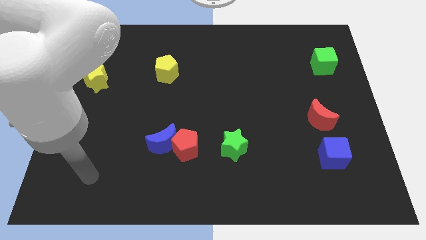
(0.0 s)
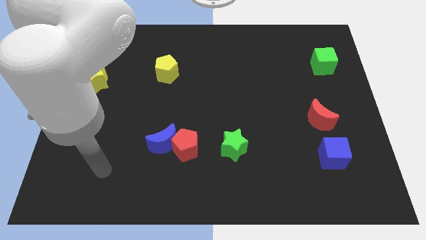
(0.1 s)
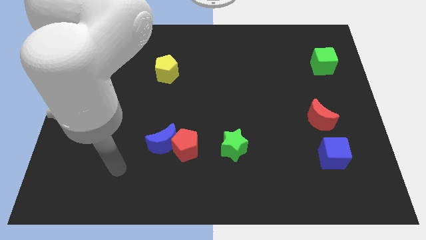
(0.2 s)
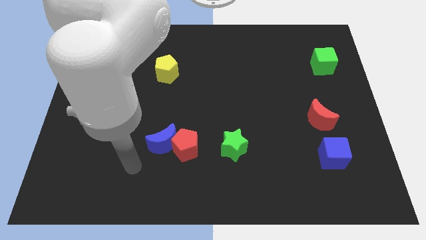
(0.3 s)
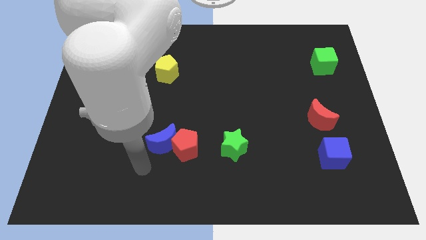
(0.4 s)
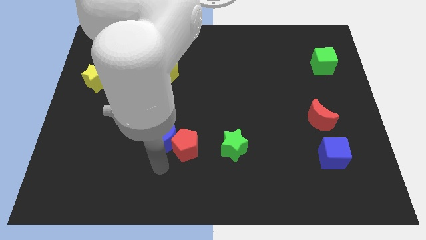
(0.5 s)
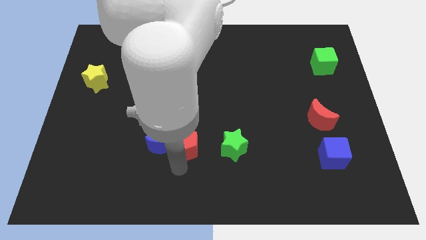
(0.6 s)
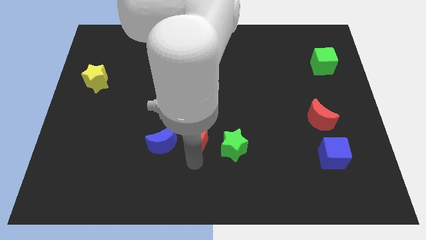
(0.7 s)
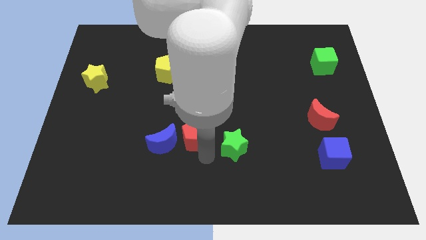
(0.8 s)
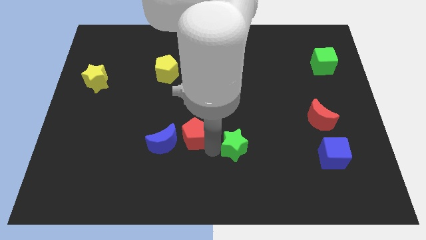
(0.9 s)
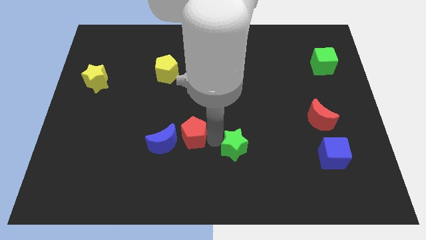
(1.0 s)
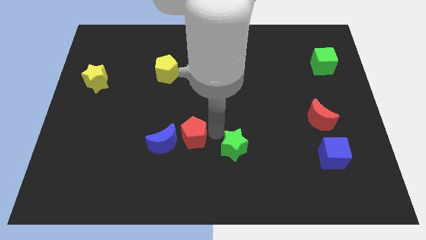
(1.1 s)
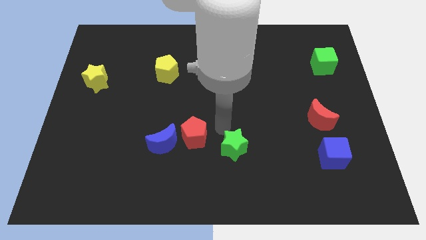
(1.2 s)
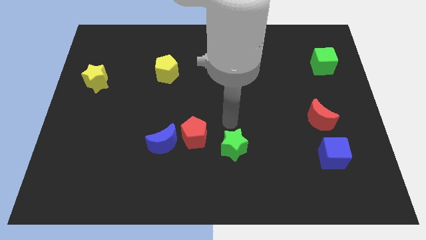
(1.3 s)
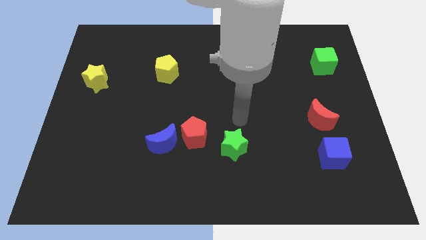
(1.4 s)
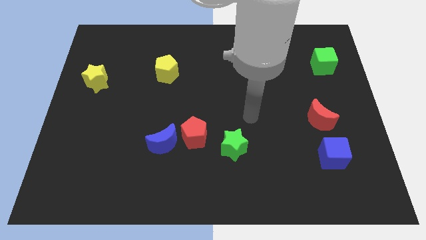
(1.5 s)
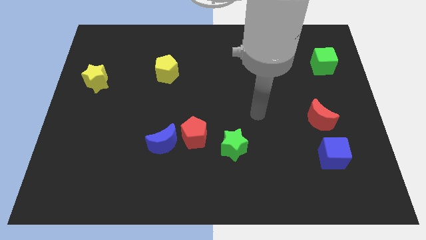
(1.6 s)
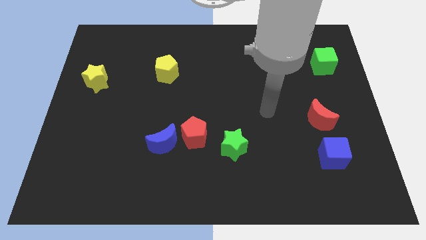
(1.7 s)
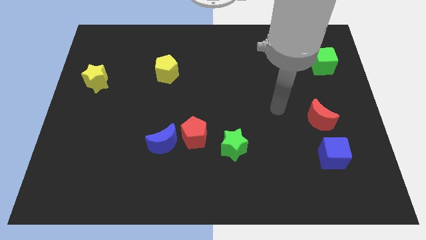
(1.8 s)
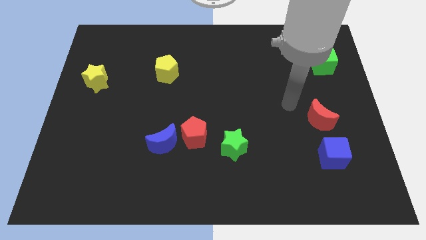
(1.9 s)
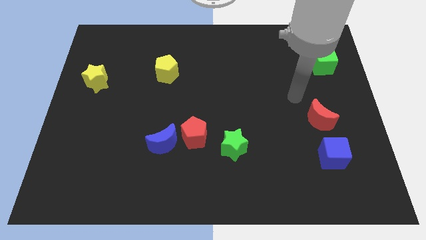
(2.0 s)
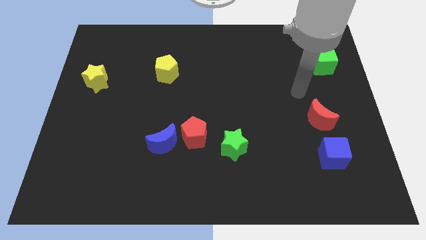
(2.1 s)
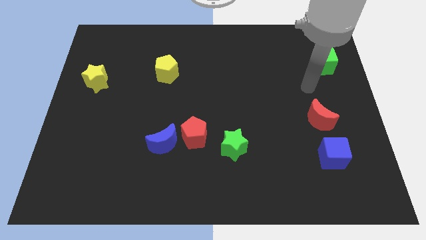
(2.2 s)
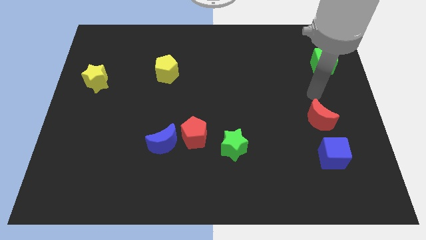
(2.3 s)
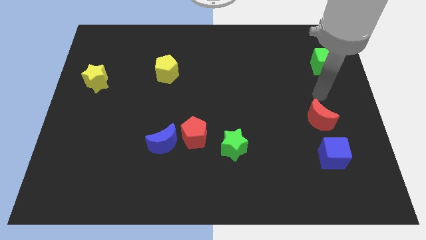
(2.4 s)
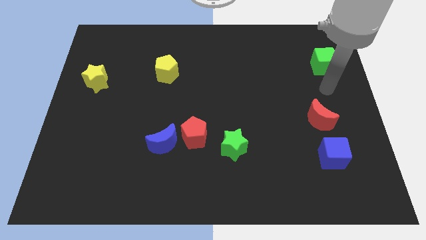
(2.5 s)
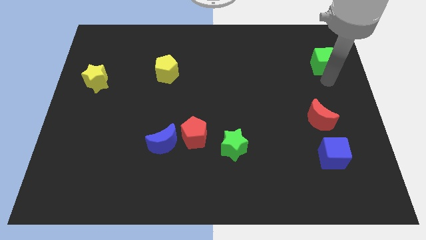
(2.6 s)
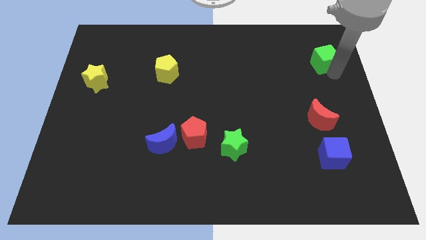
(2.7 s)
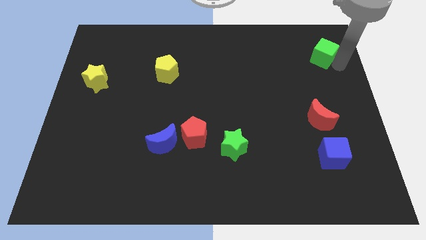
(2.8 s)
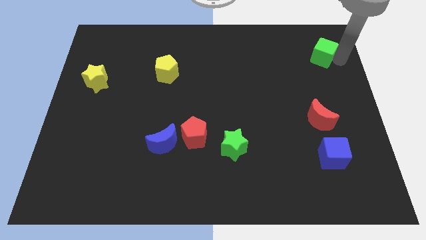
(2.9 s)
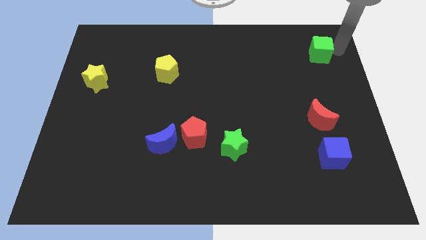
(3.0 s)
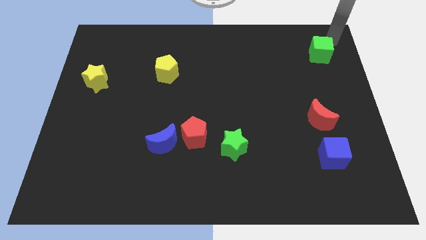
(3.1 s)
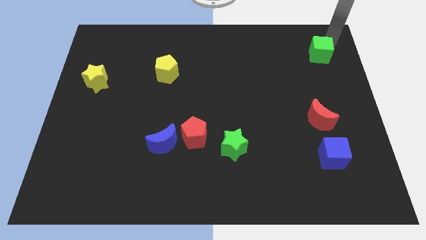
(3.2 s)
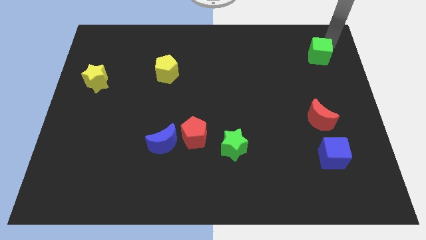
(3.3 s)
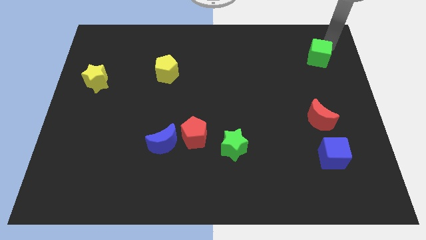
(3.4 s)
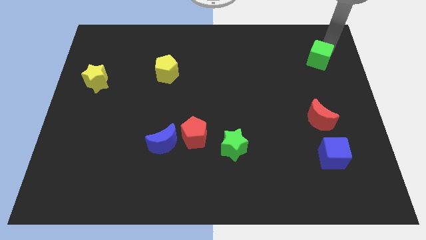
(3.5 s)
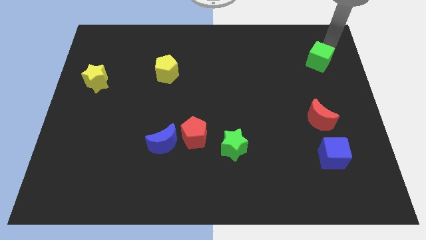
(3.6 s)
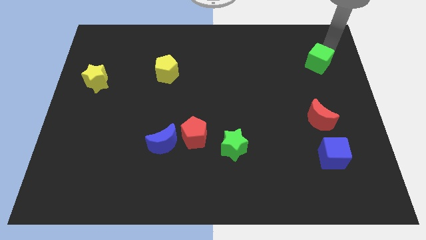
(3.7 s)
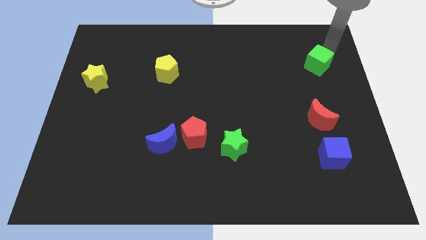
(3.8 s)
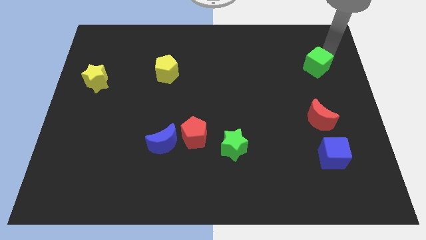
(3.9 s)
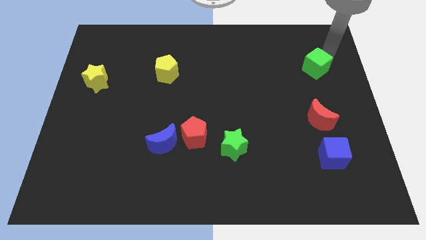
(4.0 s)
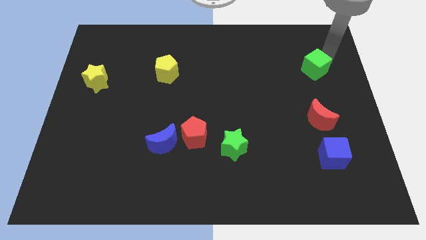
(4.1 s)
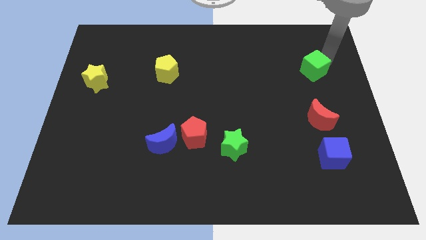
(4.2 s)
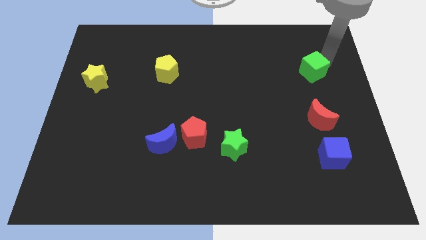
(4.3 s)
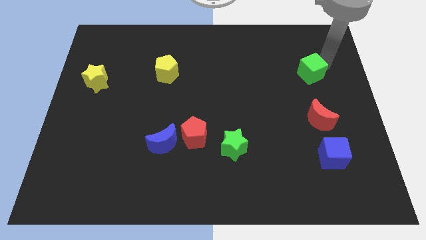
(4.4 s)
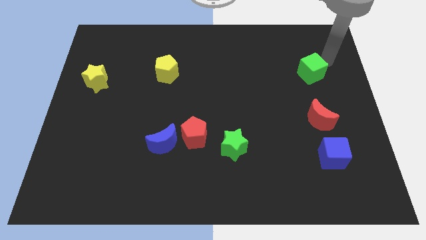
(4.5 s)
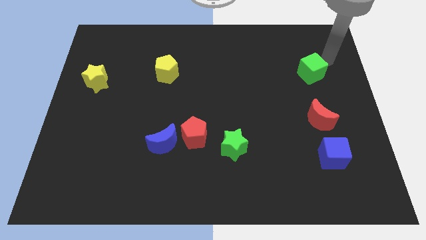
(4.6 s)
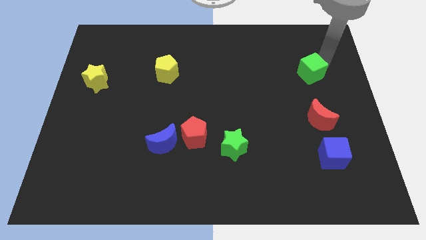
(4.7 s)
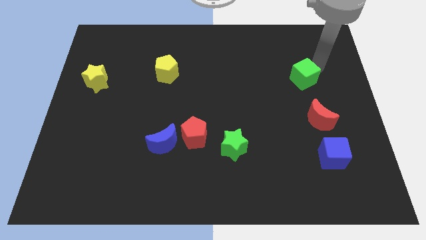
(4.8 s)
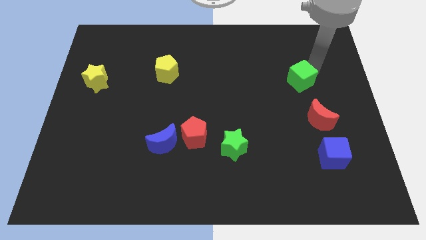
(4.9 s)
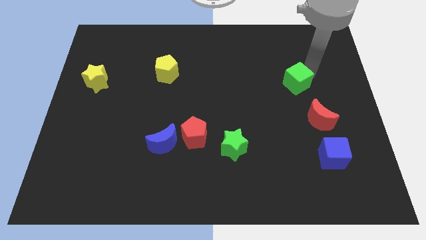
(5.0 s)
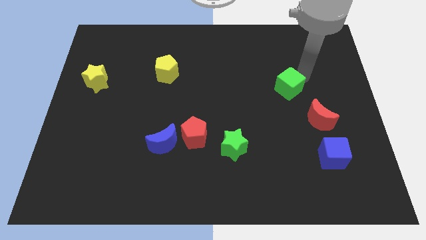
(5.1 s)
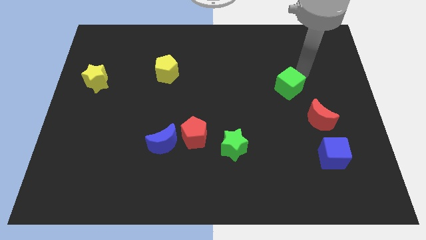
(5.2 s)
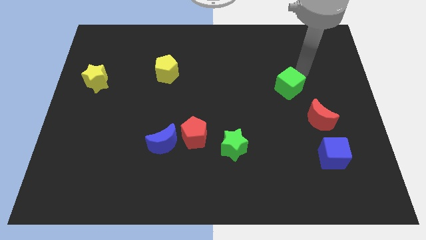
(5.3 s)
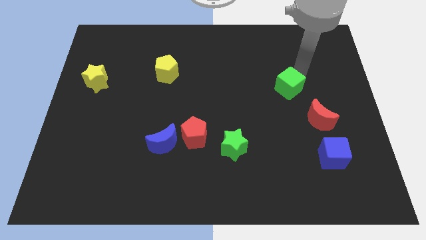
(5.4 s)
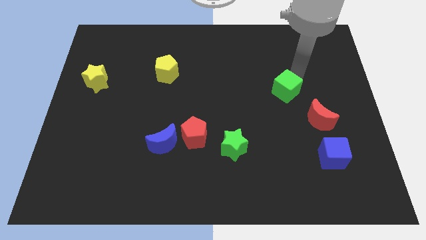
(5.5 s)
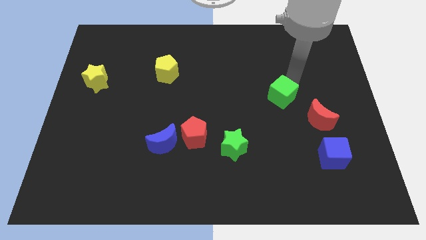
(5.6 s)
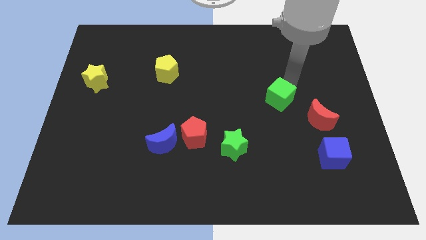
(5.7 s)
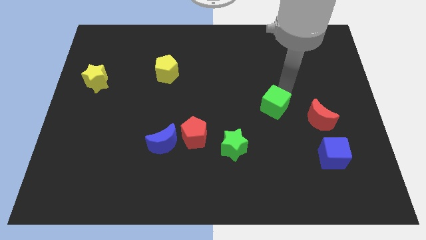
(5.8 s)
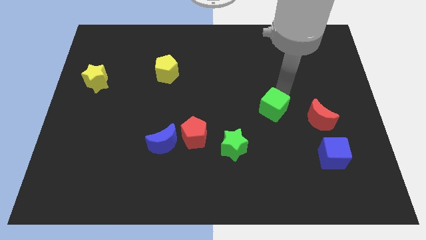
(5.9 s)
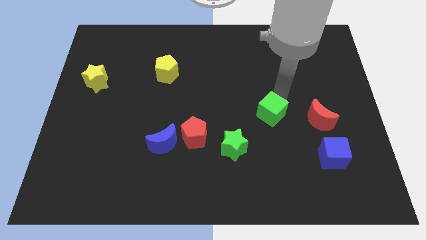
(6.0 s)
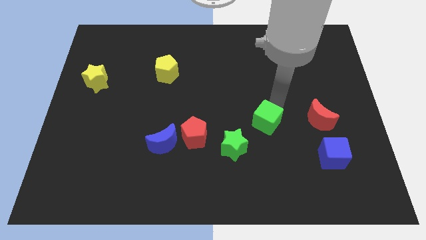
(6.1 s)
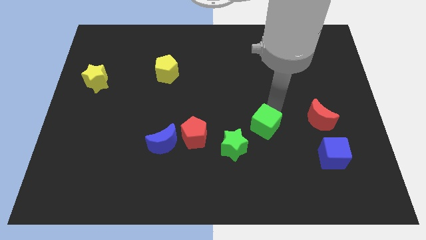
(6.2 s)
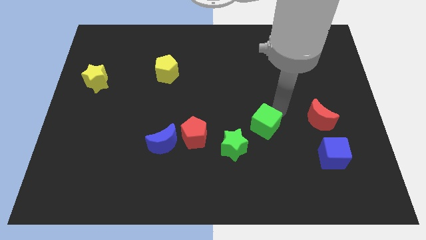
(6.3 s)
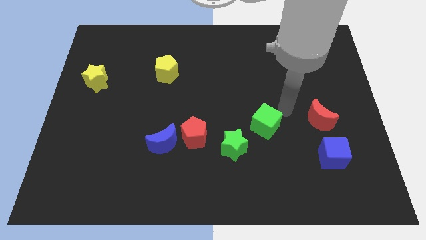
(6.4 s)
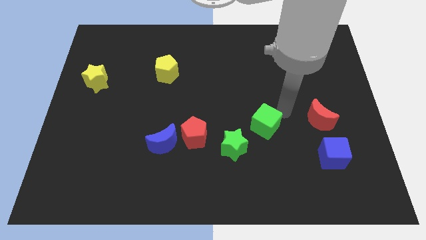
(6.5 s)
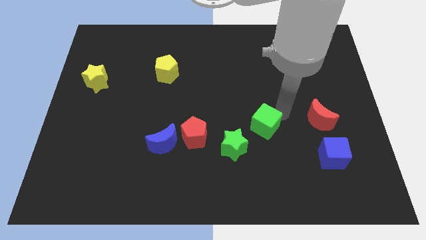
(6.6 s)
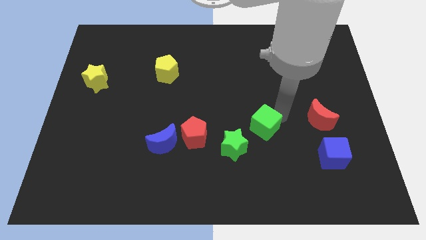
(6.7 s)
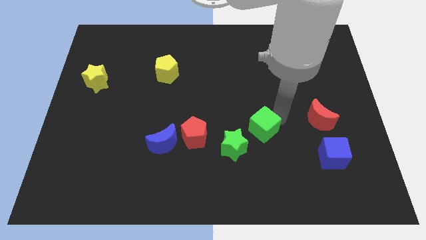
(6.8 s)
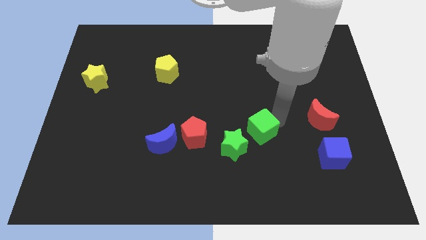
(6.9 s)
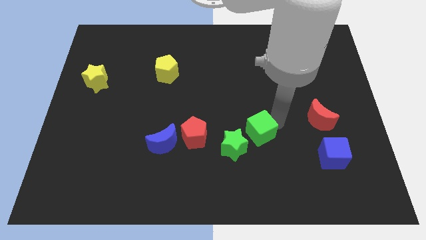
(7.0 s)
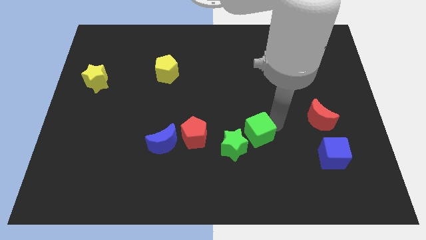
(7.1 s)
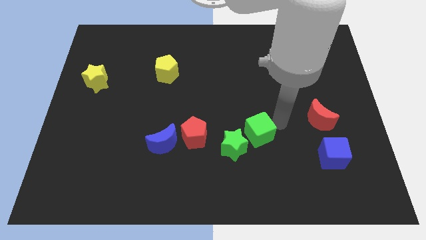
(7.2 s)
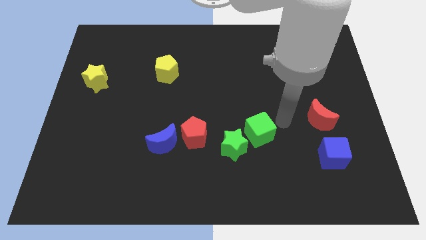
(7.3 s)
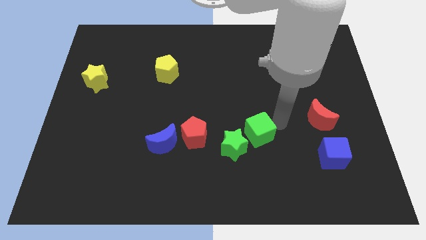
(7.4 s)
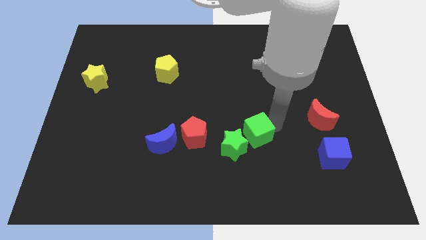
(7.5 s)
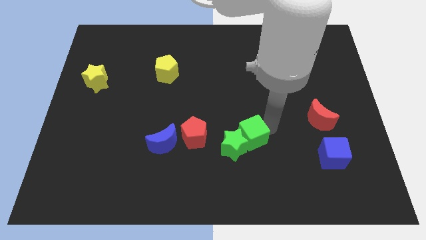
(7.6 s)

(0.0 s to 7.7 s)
push the green cube to the green star
